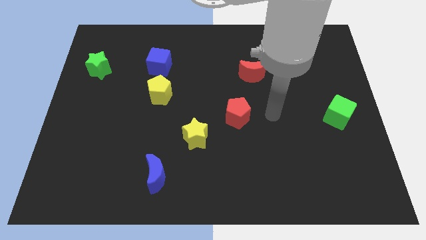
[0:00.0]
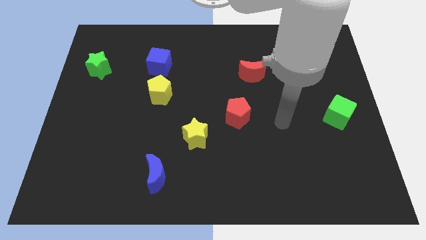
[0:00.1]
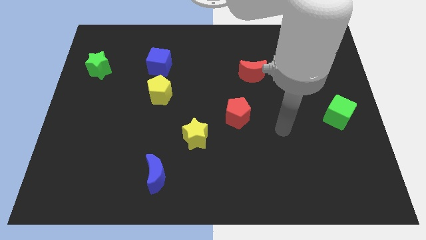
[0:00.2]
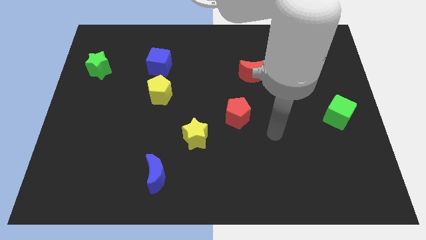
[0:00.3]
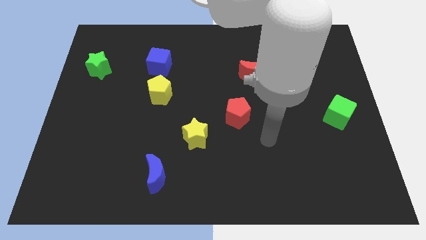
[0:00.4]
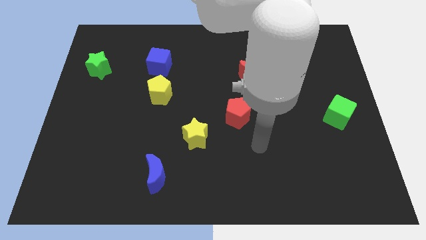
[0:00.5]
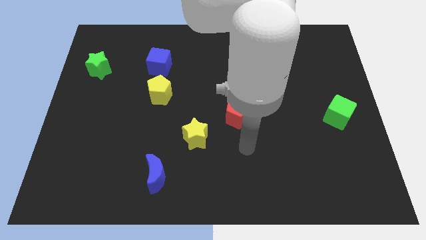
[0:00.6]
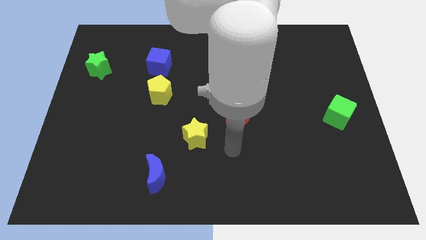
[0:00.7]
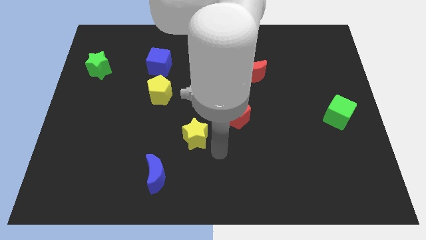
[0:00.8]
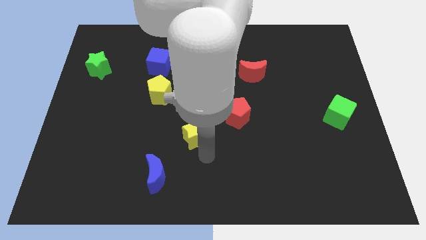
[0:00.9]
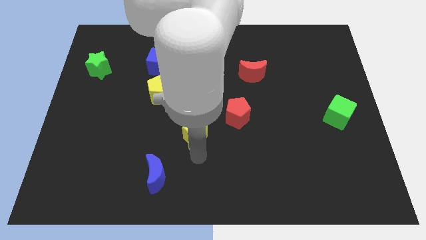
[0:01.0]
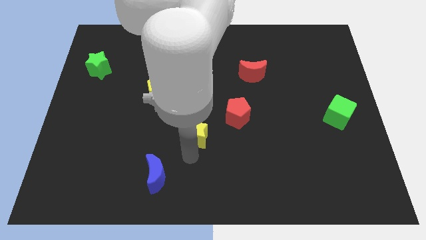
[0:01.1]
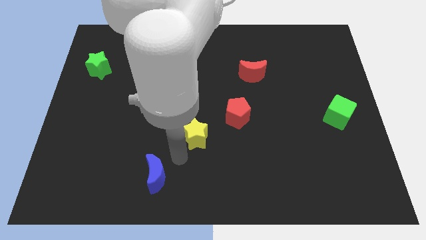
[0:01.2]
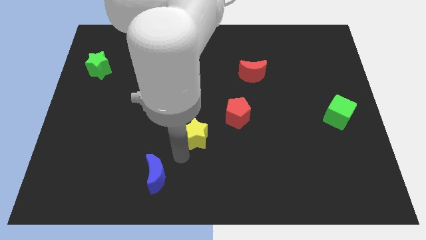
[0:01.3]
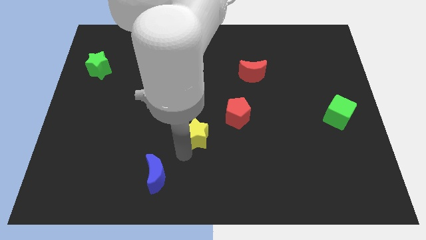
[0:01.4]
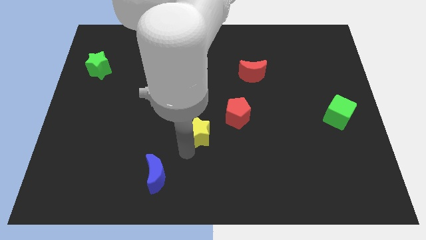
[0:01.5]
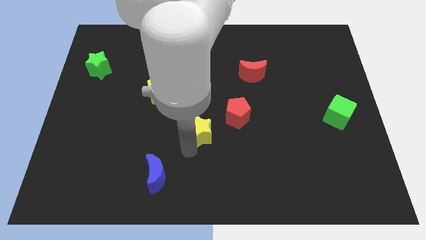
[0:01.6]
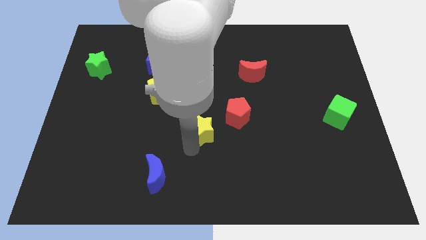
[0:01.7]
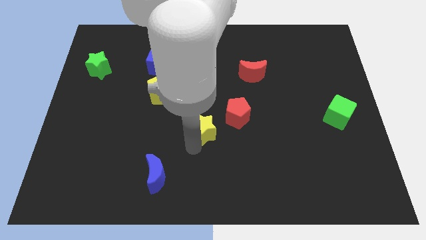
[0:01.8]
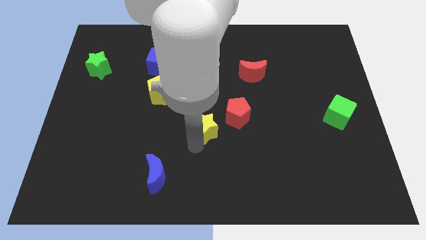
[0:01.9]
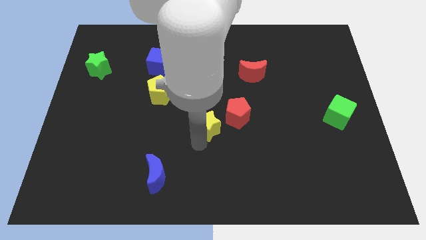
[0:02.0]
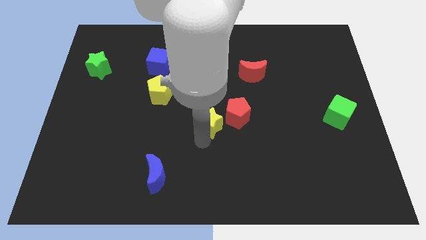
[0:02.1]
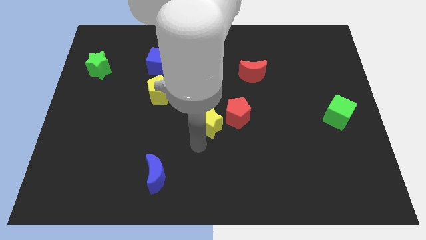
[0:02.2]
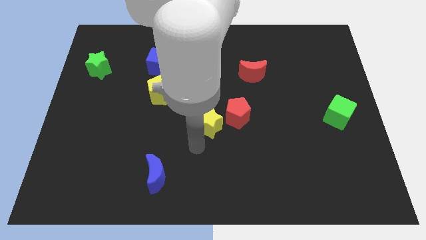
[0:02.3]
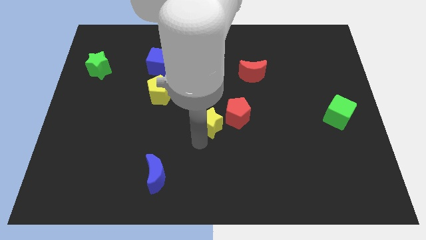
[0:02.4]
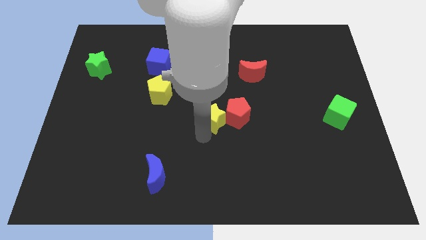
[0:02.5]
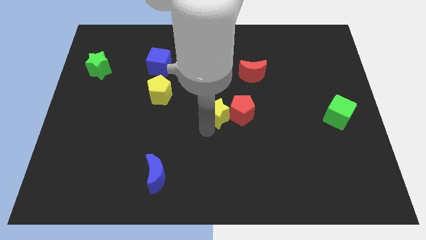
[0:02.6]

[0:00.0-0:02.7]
slide the yellow star upwards and then to the right a bit

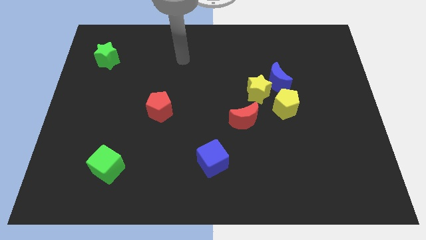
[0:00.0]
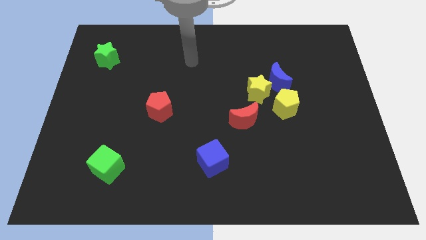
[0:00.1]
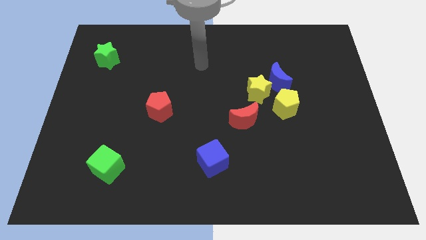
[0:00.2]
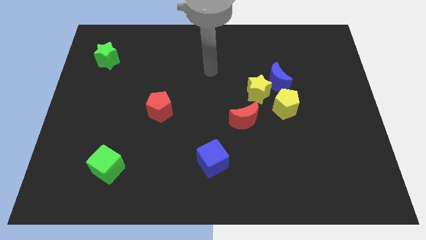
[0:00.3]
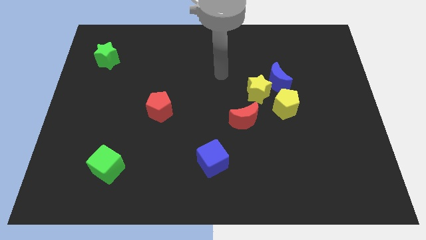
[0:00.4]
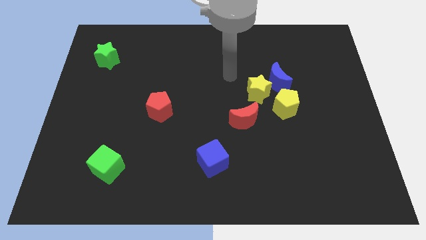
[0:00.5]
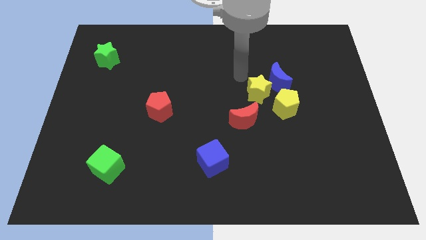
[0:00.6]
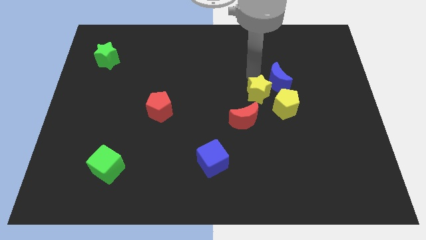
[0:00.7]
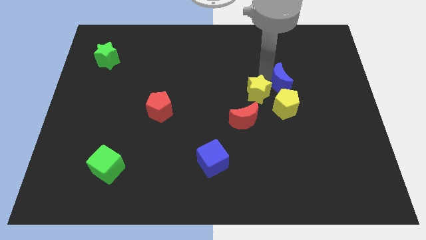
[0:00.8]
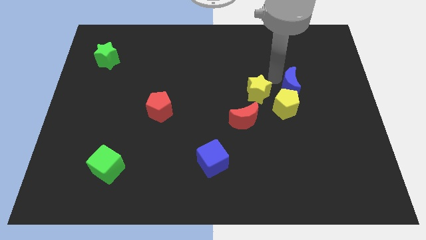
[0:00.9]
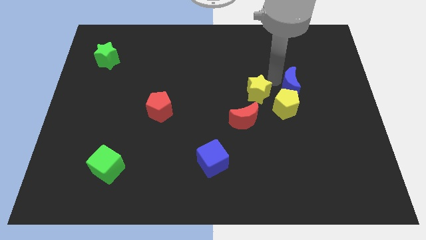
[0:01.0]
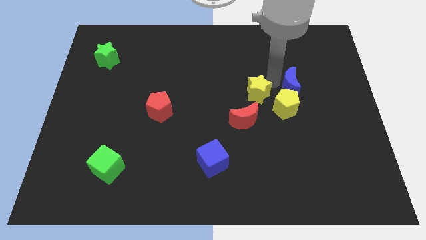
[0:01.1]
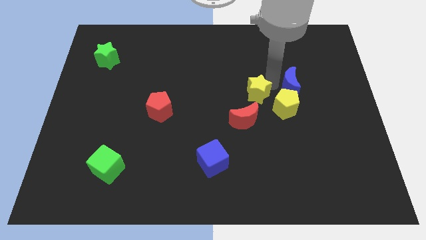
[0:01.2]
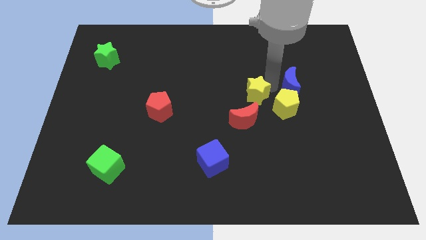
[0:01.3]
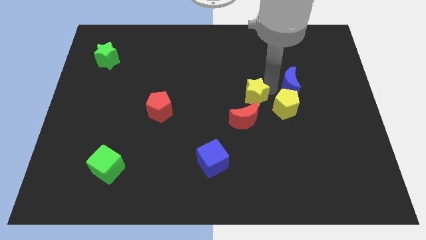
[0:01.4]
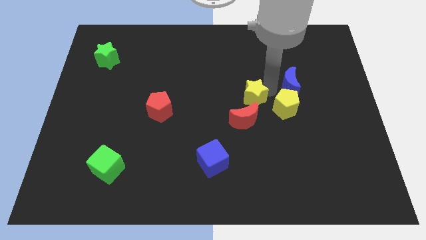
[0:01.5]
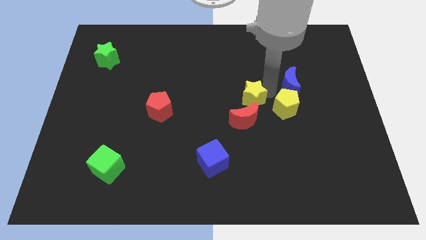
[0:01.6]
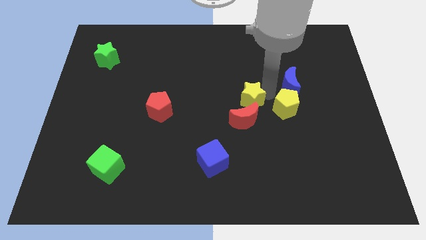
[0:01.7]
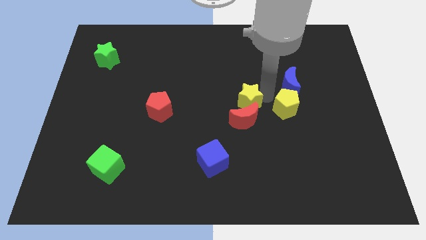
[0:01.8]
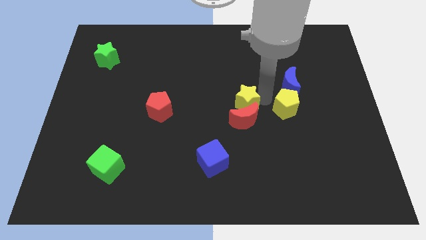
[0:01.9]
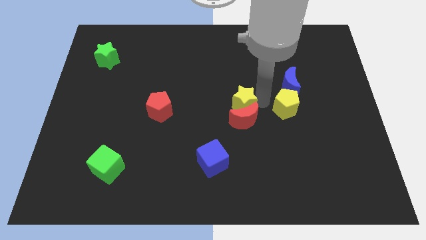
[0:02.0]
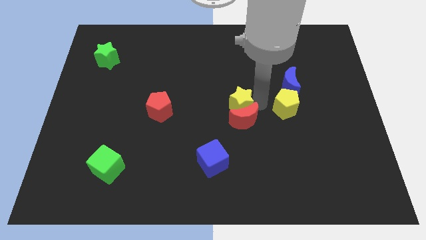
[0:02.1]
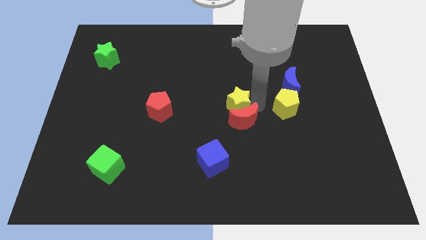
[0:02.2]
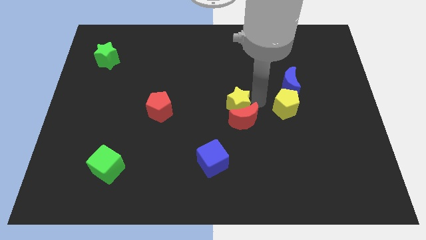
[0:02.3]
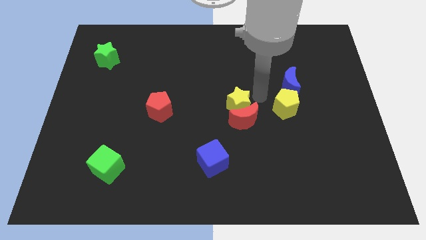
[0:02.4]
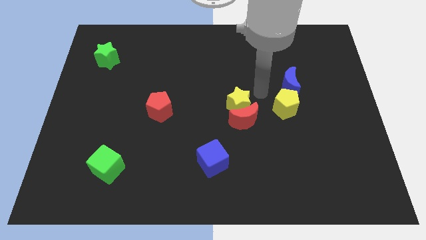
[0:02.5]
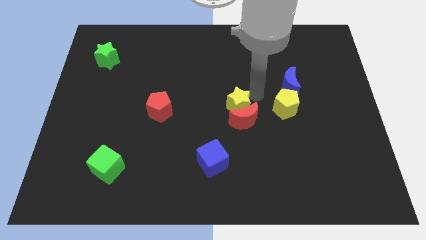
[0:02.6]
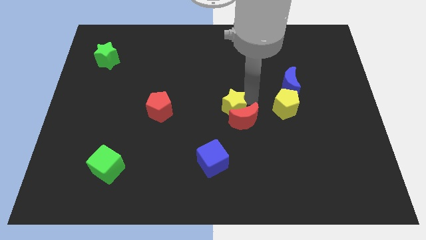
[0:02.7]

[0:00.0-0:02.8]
slide the yellow star down and then to the left a little

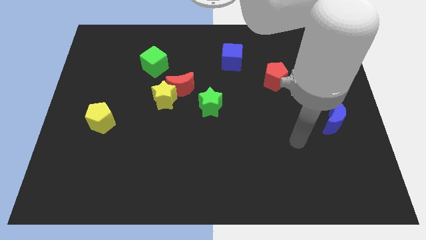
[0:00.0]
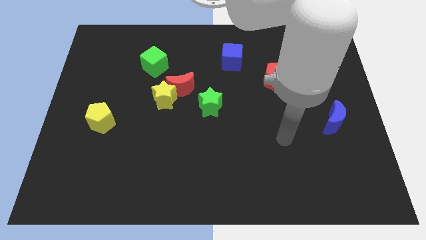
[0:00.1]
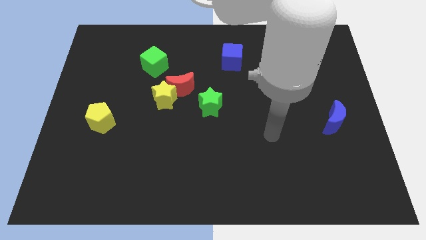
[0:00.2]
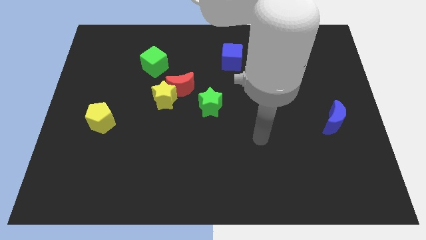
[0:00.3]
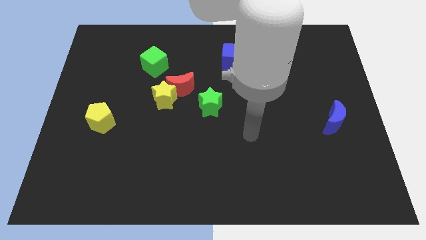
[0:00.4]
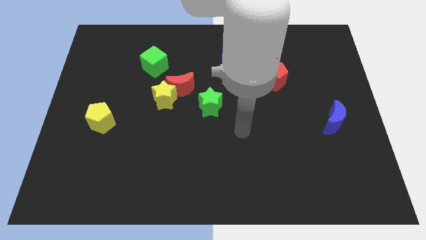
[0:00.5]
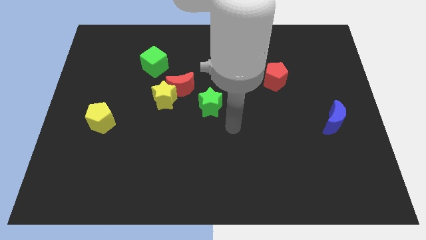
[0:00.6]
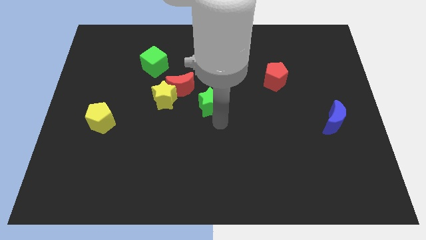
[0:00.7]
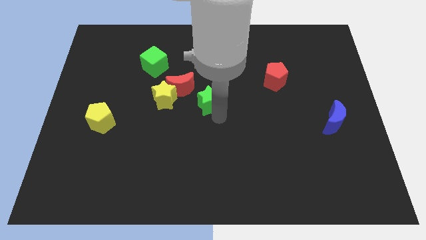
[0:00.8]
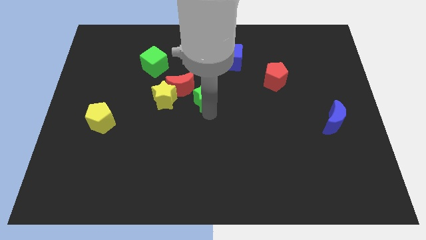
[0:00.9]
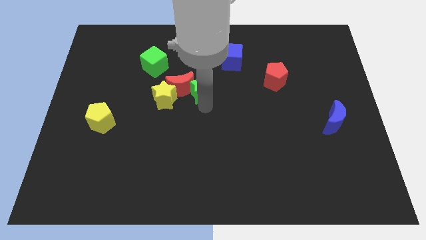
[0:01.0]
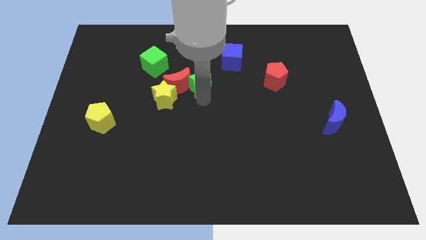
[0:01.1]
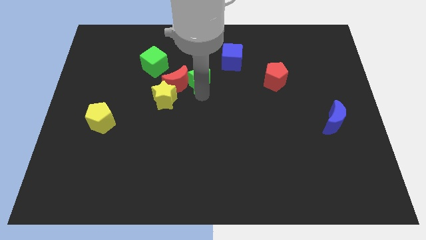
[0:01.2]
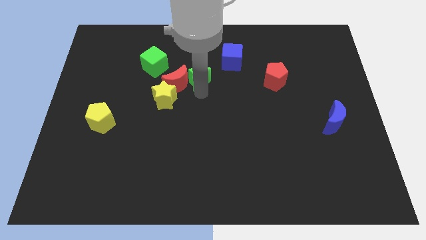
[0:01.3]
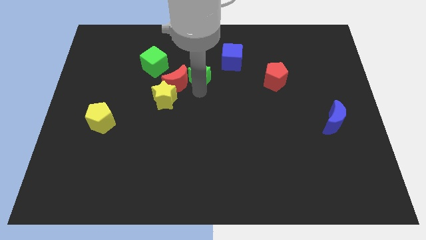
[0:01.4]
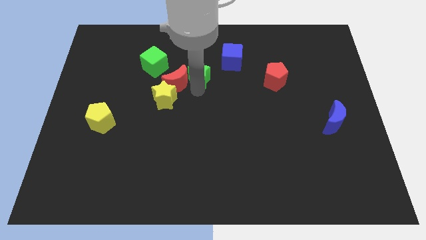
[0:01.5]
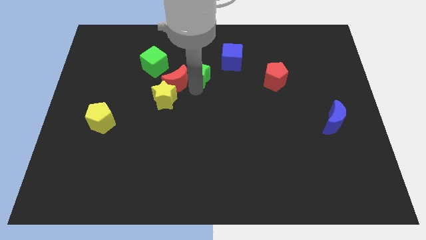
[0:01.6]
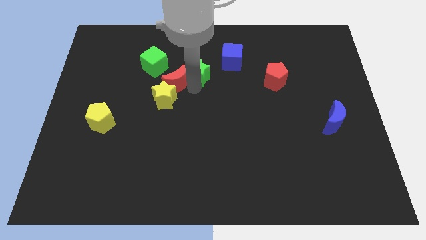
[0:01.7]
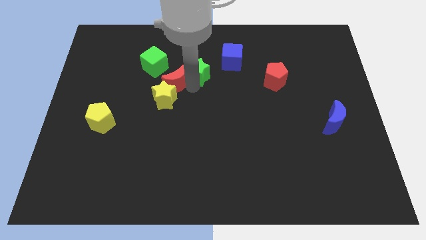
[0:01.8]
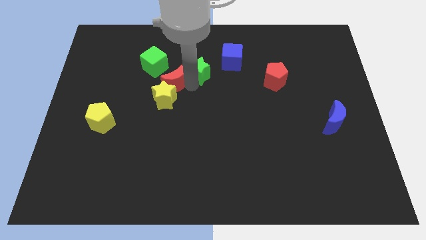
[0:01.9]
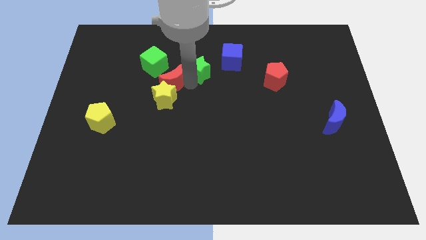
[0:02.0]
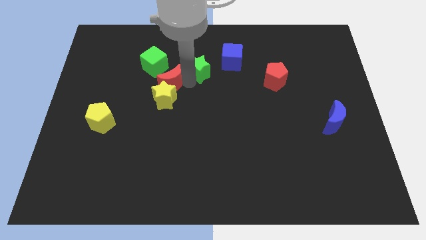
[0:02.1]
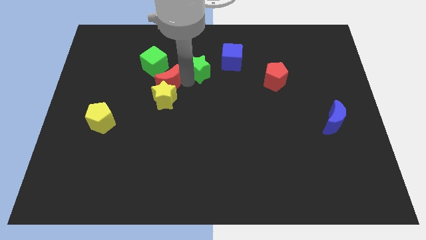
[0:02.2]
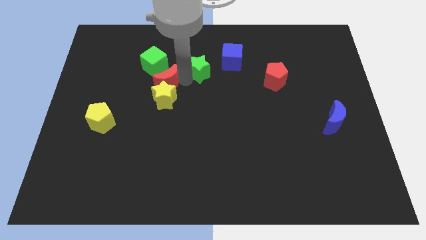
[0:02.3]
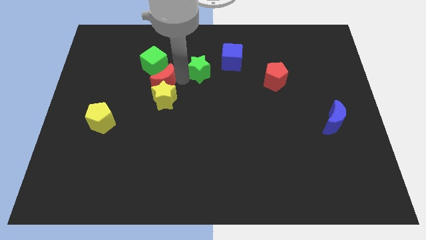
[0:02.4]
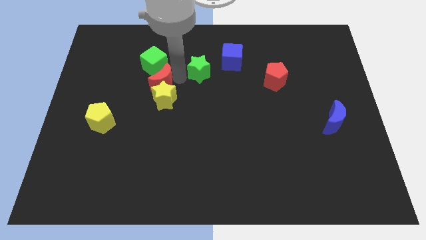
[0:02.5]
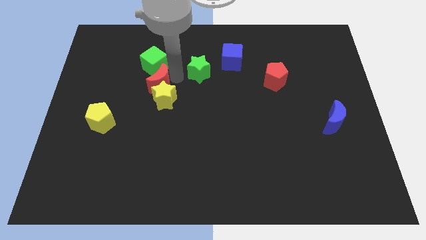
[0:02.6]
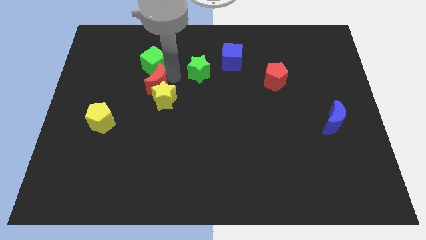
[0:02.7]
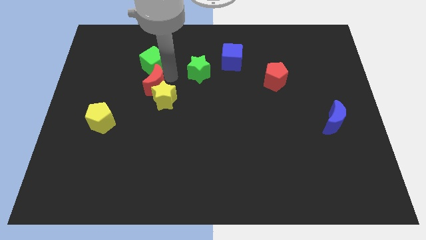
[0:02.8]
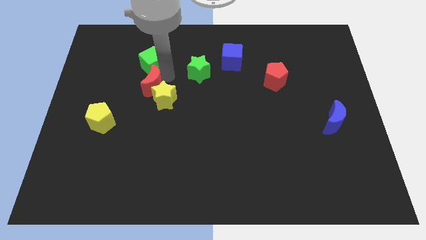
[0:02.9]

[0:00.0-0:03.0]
slightly push the red moon to the left
